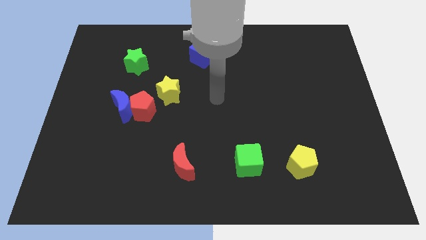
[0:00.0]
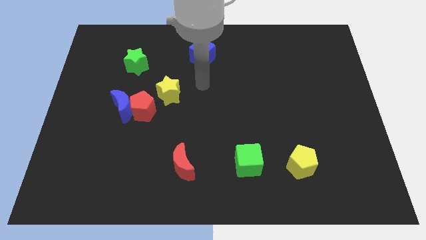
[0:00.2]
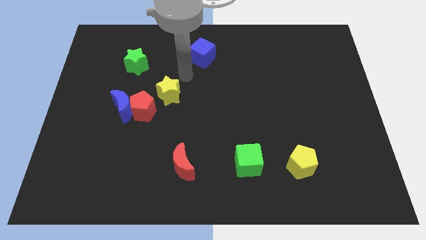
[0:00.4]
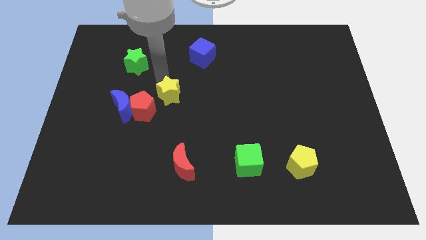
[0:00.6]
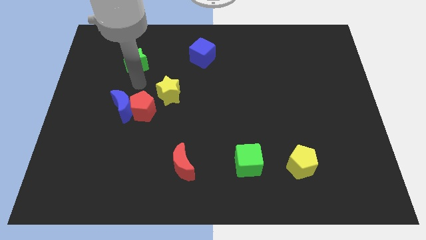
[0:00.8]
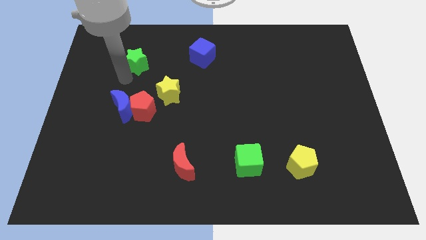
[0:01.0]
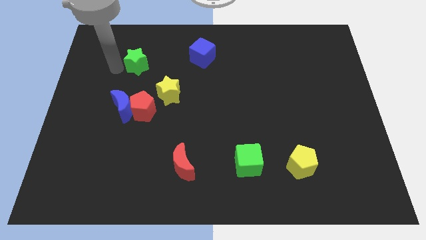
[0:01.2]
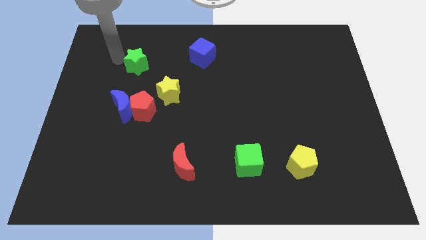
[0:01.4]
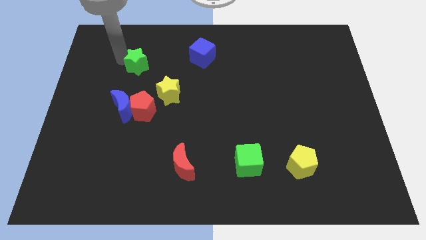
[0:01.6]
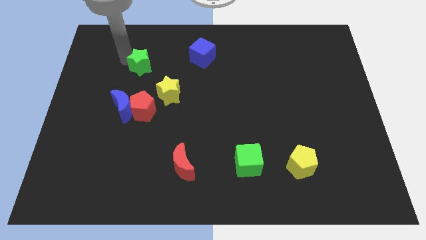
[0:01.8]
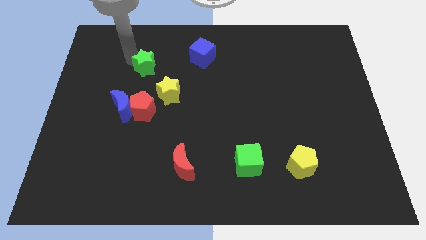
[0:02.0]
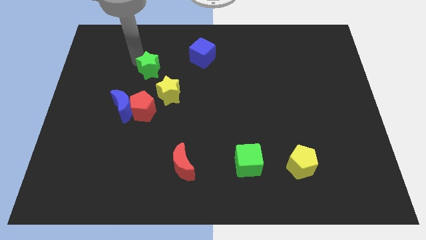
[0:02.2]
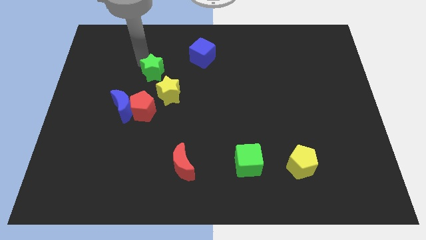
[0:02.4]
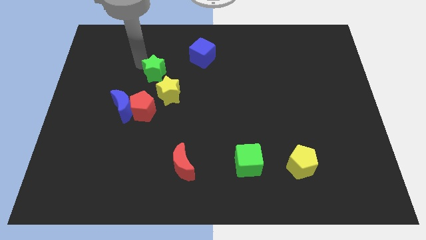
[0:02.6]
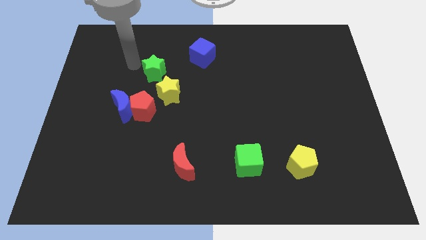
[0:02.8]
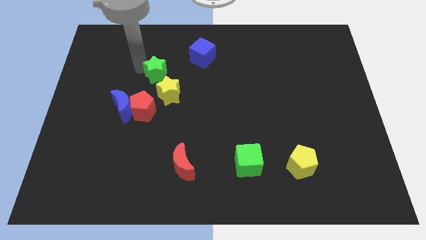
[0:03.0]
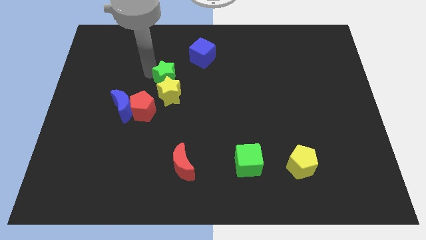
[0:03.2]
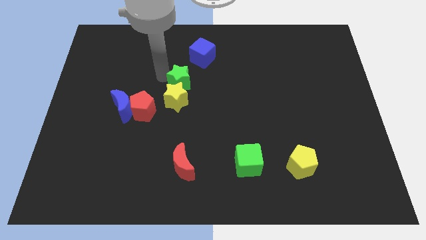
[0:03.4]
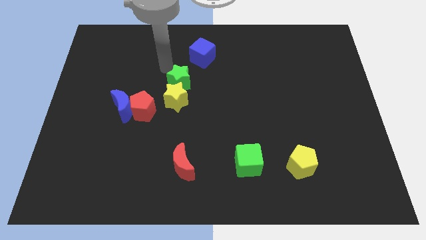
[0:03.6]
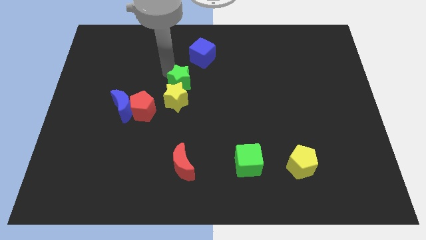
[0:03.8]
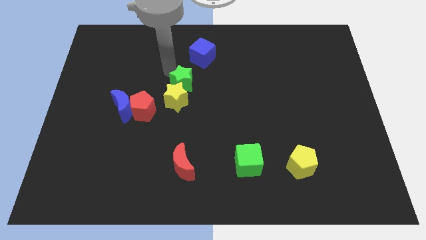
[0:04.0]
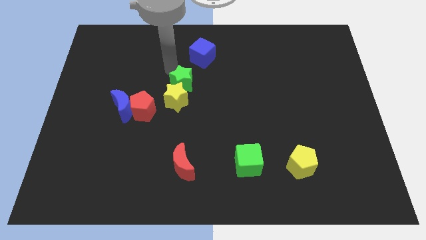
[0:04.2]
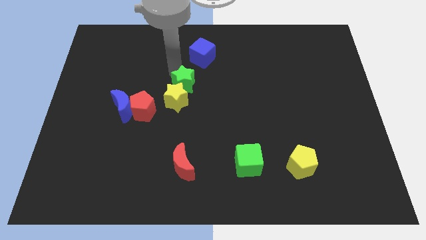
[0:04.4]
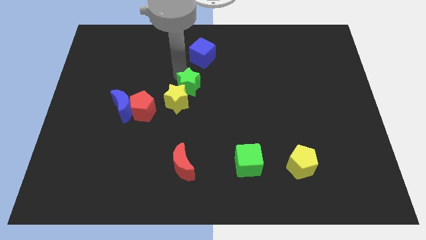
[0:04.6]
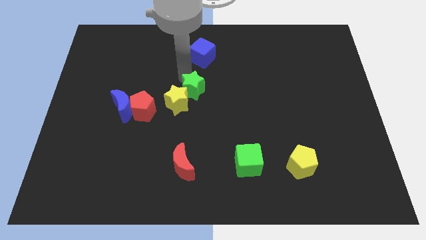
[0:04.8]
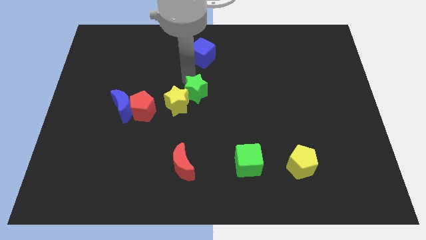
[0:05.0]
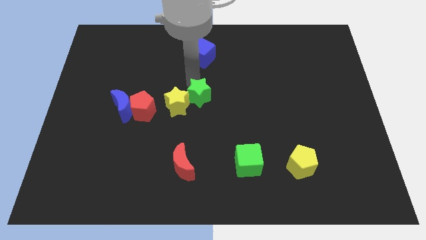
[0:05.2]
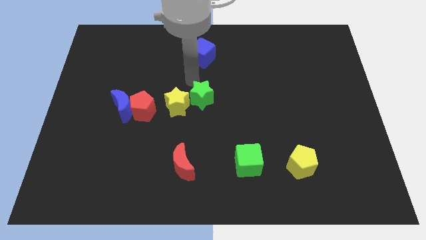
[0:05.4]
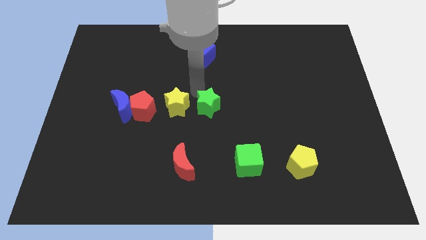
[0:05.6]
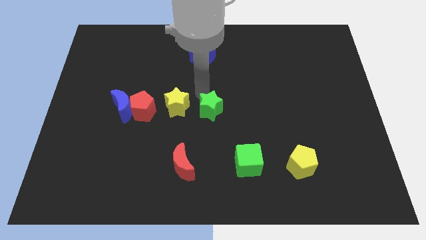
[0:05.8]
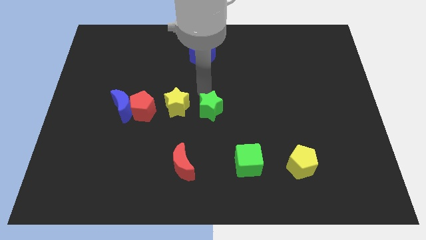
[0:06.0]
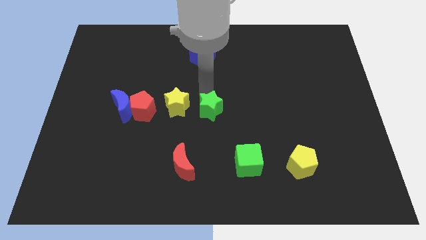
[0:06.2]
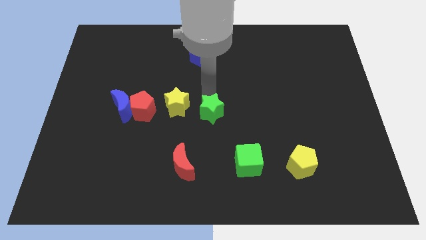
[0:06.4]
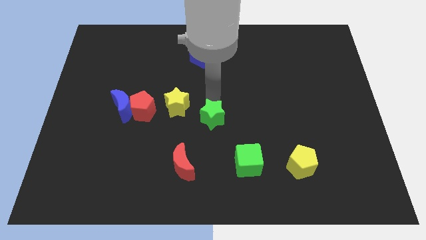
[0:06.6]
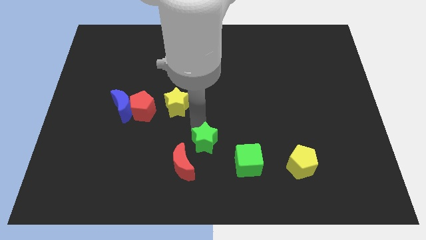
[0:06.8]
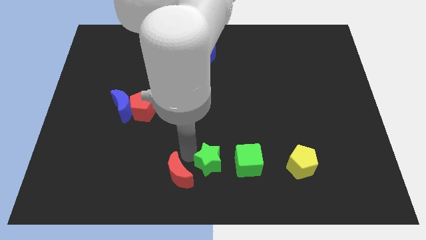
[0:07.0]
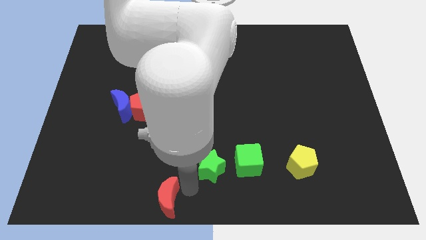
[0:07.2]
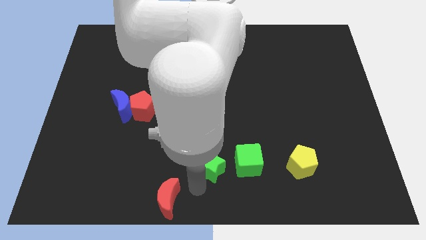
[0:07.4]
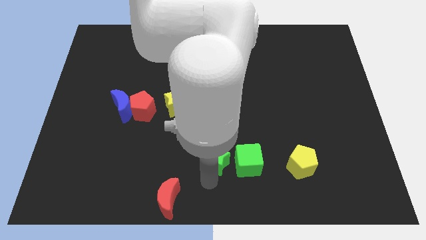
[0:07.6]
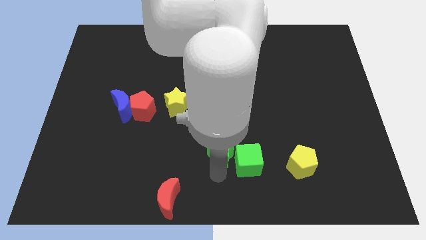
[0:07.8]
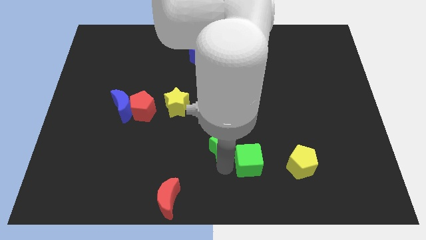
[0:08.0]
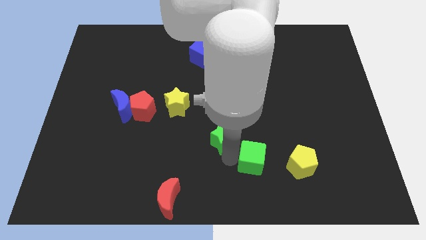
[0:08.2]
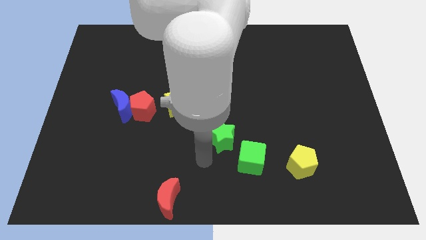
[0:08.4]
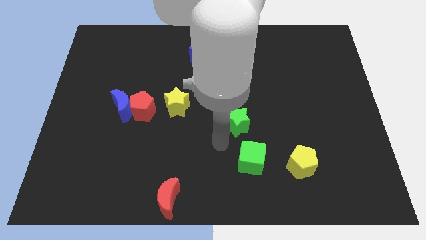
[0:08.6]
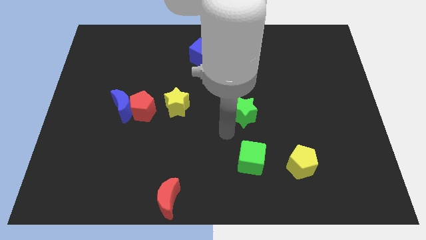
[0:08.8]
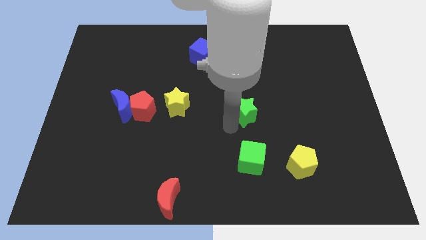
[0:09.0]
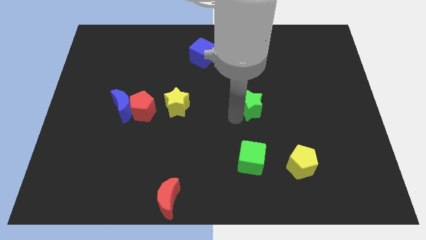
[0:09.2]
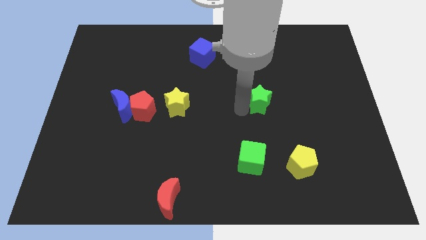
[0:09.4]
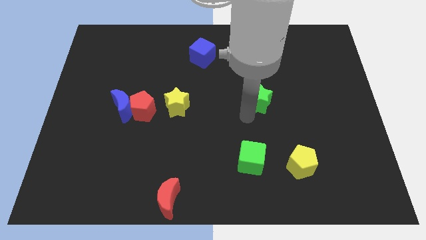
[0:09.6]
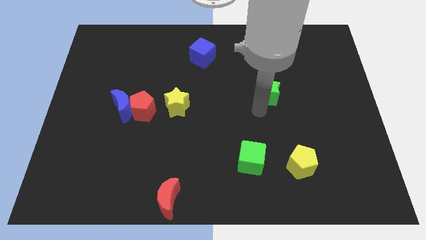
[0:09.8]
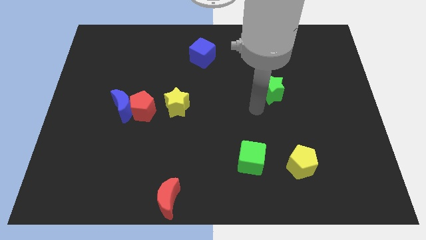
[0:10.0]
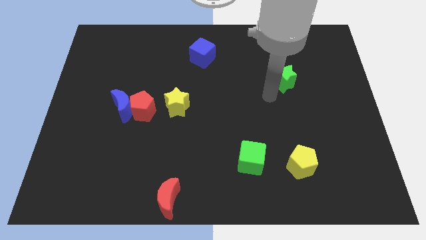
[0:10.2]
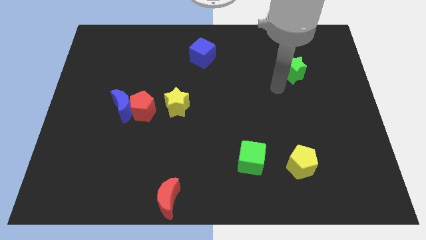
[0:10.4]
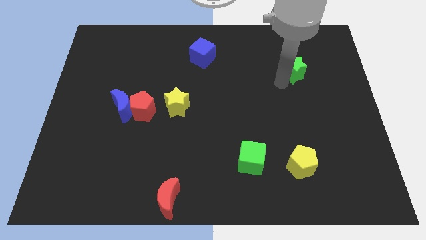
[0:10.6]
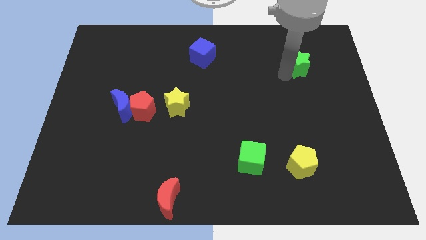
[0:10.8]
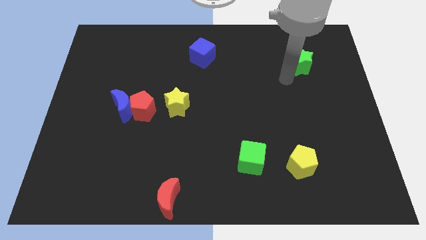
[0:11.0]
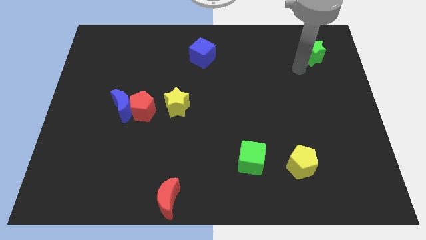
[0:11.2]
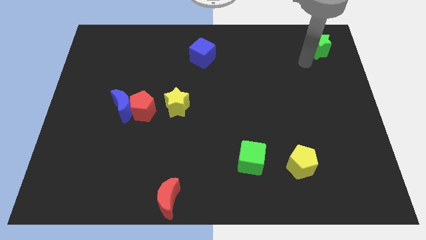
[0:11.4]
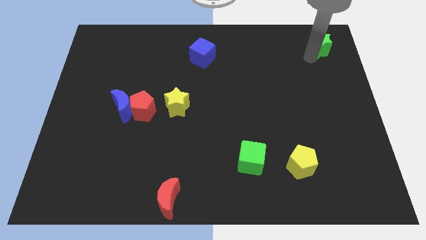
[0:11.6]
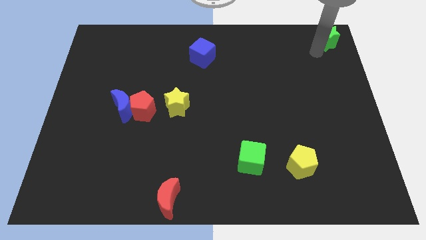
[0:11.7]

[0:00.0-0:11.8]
move the green star to the top right corner

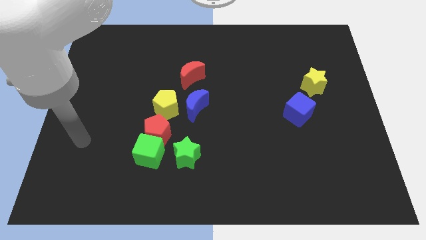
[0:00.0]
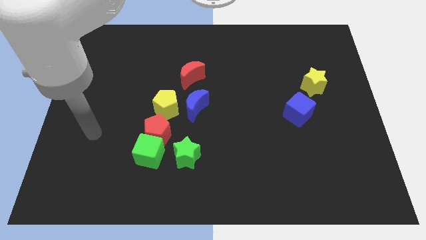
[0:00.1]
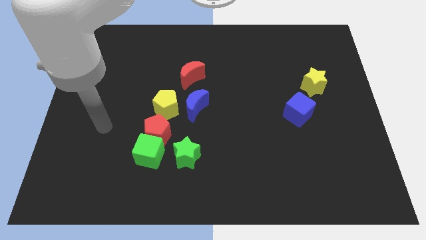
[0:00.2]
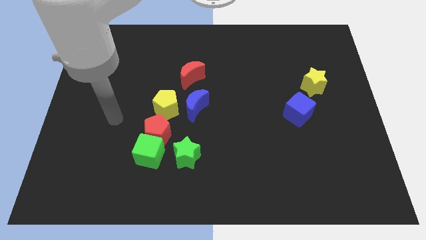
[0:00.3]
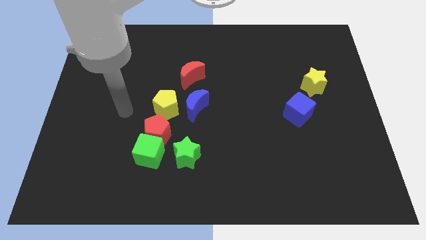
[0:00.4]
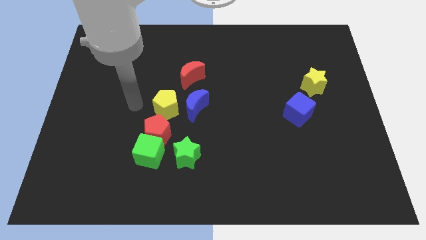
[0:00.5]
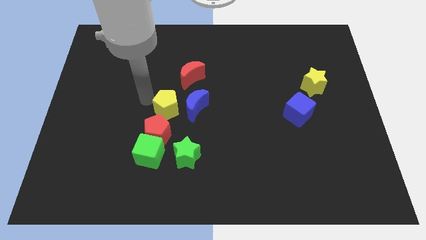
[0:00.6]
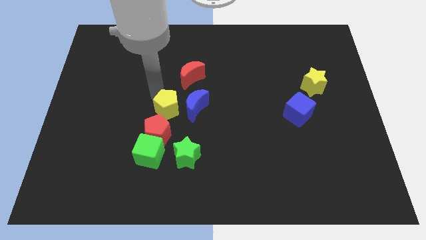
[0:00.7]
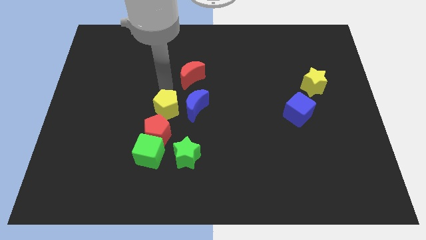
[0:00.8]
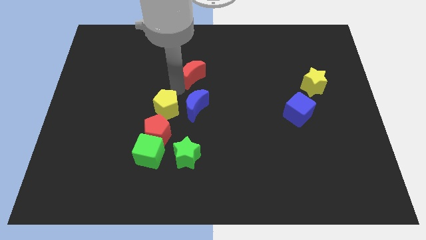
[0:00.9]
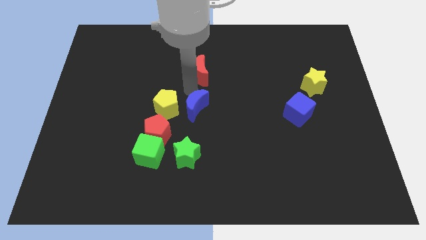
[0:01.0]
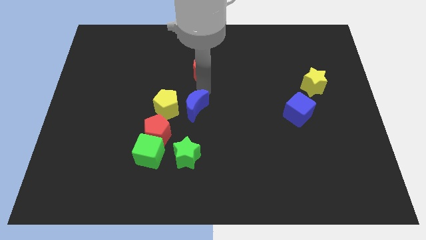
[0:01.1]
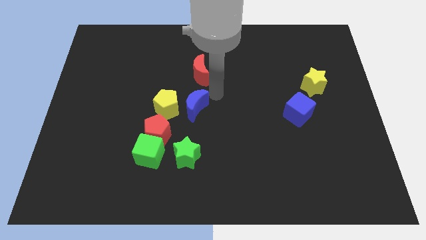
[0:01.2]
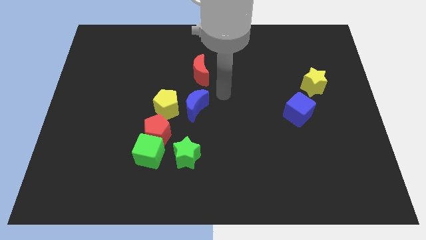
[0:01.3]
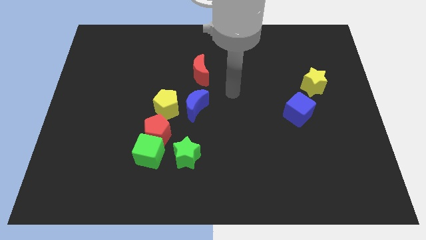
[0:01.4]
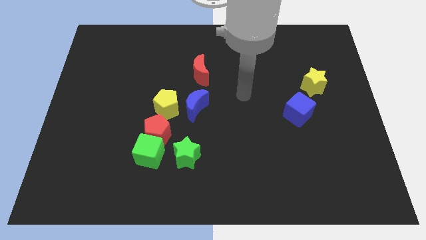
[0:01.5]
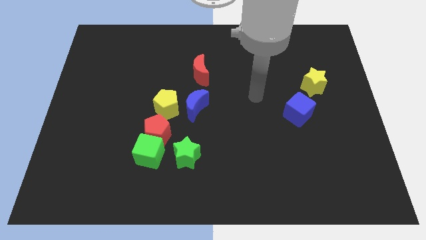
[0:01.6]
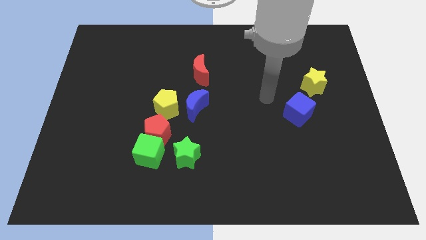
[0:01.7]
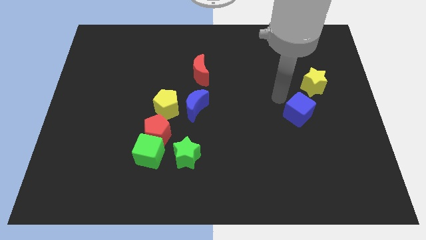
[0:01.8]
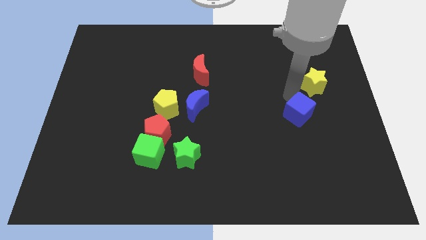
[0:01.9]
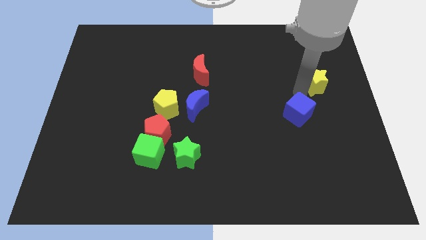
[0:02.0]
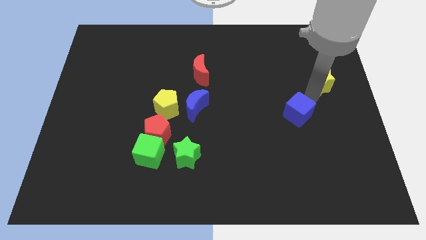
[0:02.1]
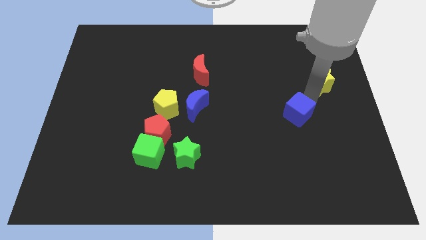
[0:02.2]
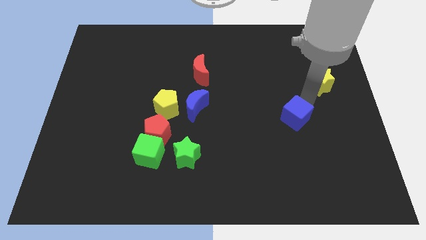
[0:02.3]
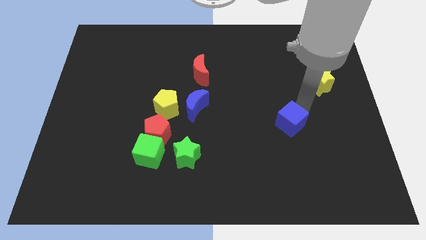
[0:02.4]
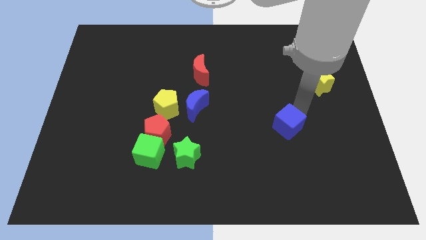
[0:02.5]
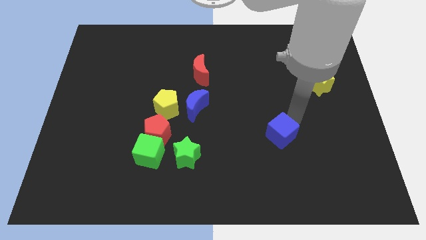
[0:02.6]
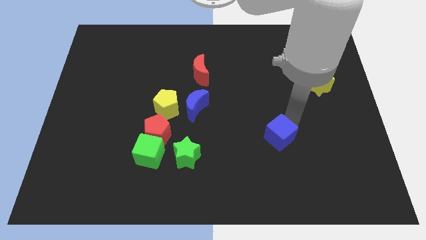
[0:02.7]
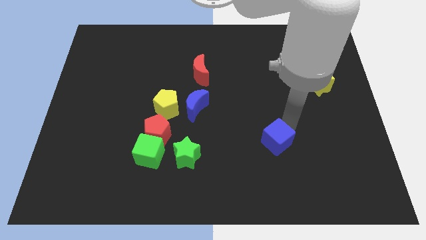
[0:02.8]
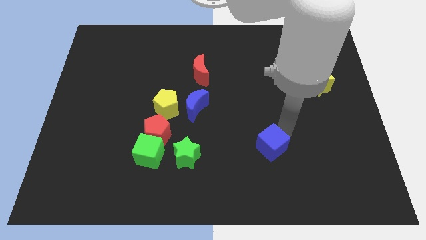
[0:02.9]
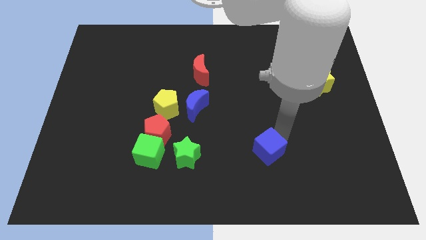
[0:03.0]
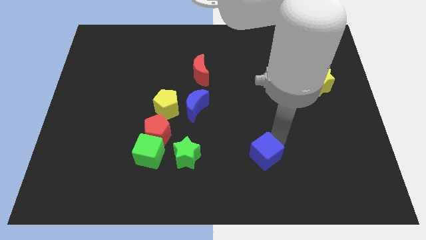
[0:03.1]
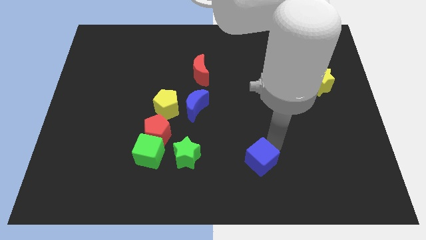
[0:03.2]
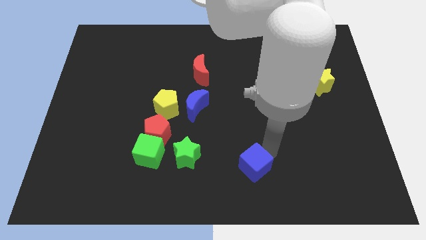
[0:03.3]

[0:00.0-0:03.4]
push the blue cube to the bottom
